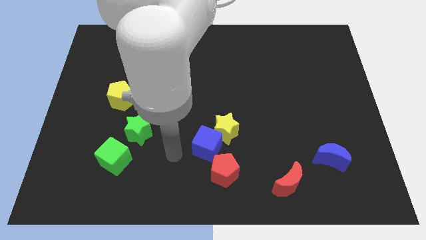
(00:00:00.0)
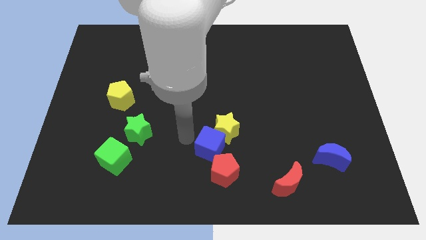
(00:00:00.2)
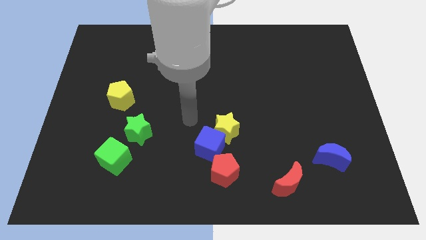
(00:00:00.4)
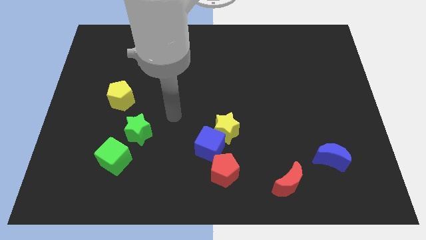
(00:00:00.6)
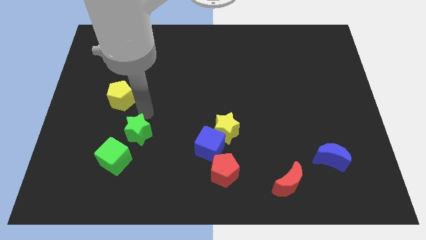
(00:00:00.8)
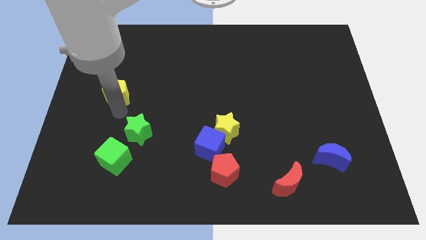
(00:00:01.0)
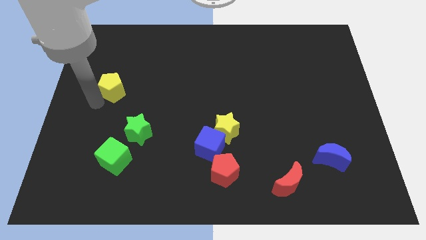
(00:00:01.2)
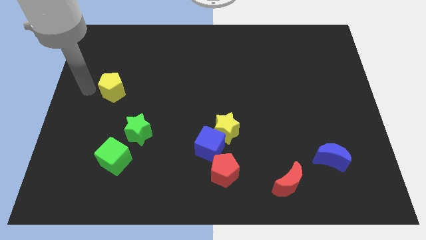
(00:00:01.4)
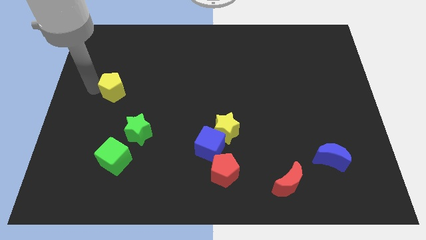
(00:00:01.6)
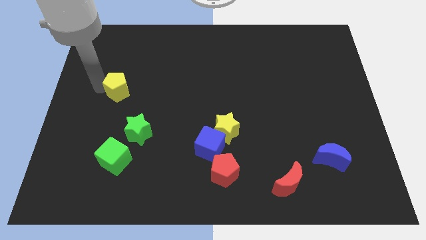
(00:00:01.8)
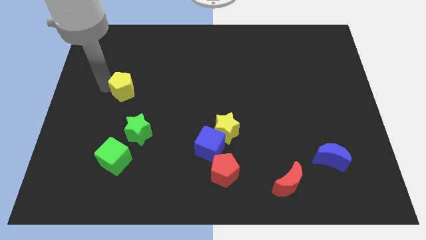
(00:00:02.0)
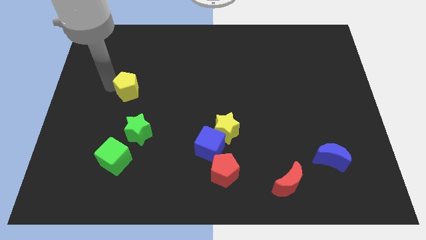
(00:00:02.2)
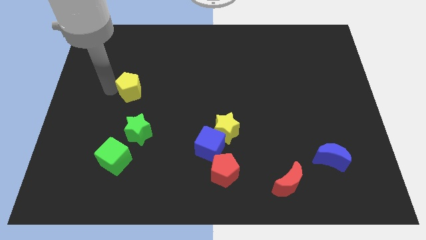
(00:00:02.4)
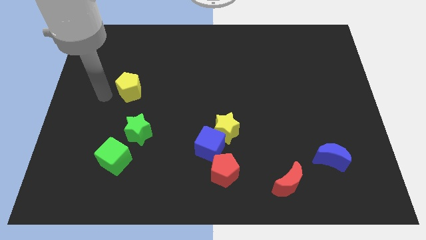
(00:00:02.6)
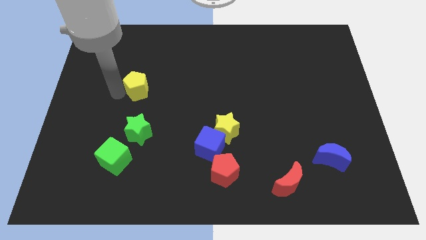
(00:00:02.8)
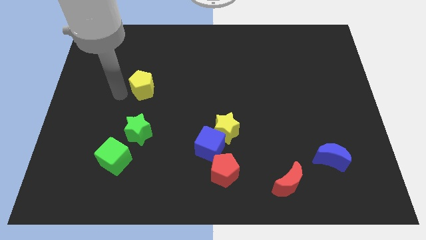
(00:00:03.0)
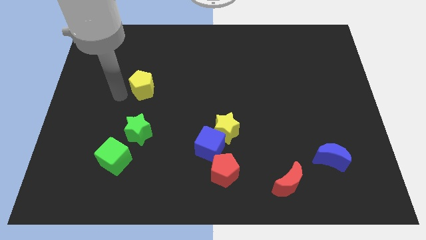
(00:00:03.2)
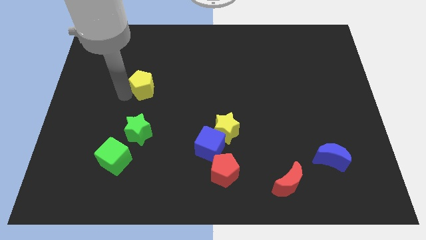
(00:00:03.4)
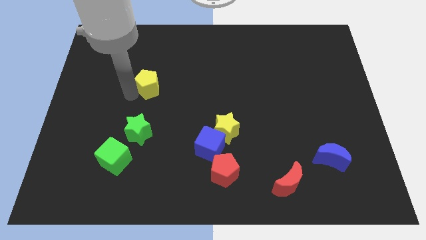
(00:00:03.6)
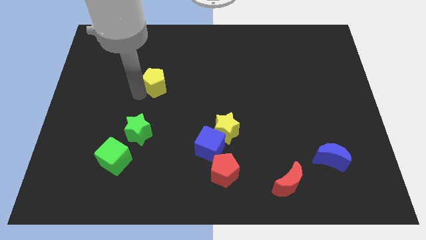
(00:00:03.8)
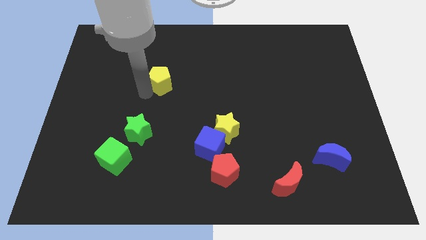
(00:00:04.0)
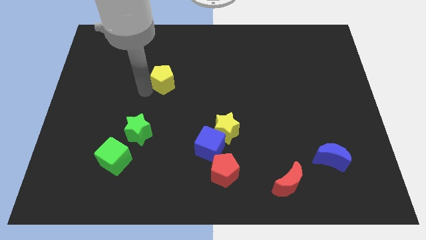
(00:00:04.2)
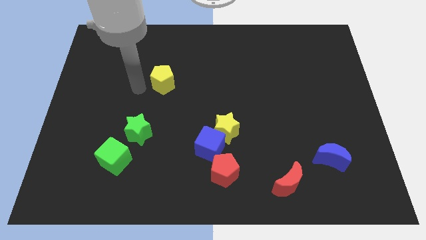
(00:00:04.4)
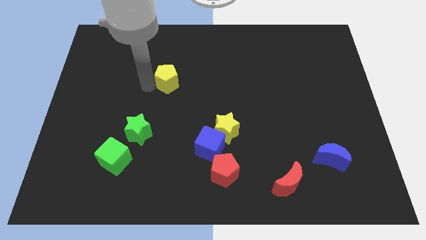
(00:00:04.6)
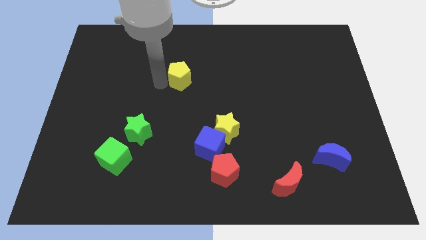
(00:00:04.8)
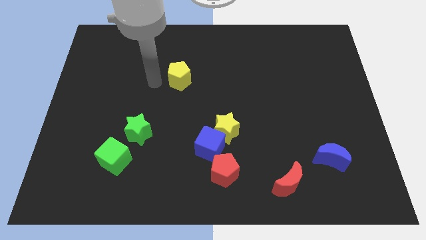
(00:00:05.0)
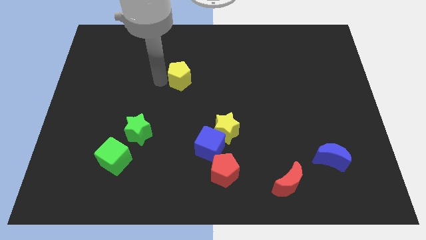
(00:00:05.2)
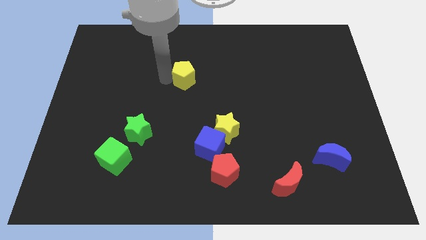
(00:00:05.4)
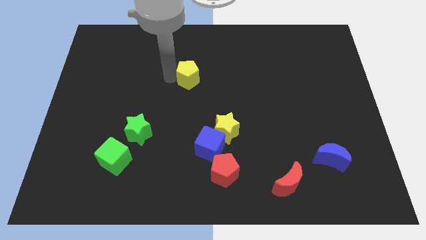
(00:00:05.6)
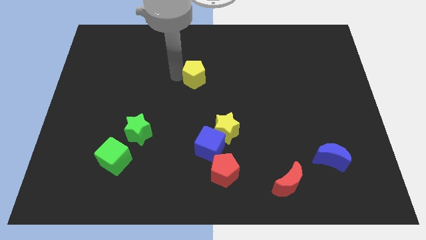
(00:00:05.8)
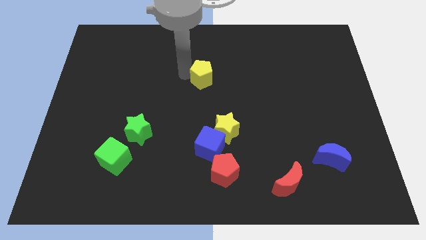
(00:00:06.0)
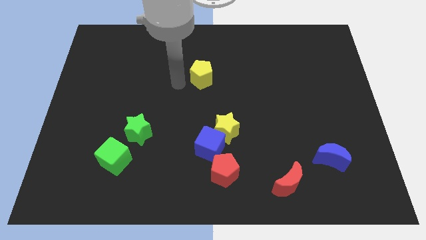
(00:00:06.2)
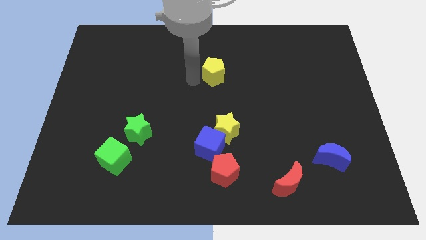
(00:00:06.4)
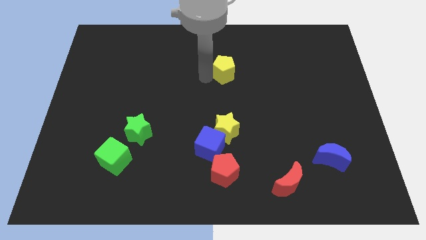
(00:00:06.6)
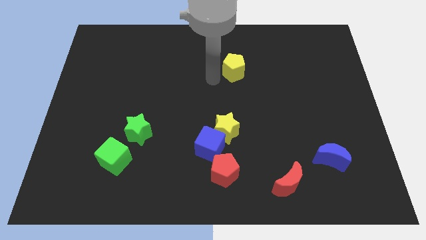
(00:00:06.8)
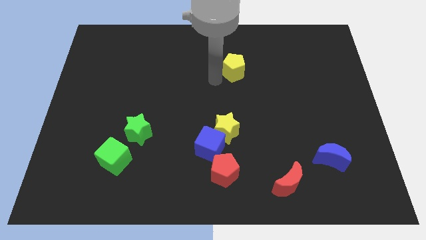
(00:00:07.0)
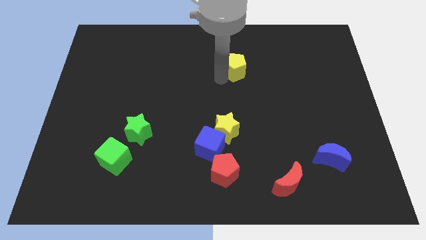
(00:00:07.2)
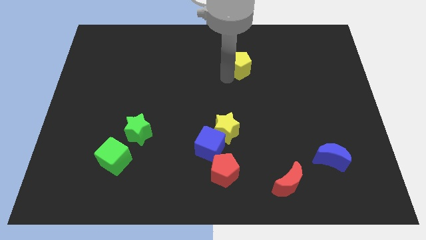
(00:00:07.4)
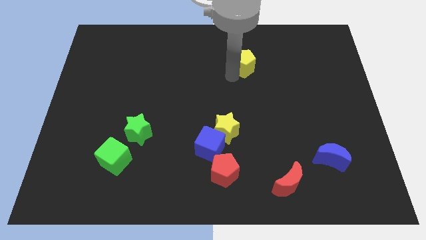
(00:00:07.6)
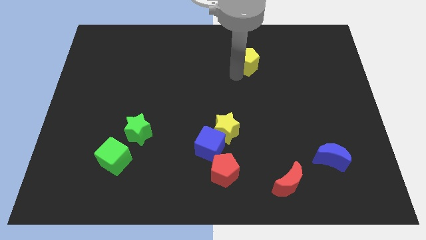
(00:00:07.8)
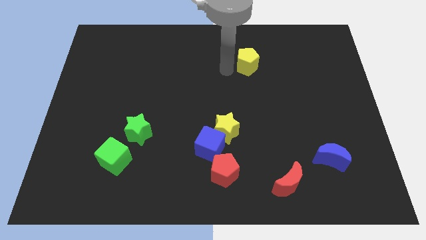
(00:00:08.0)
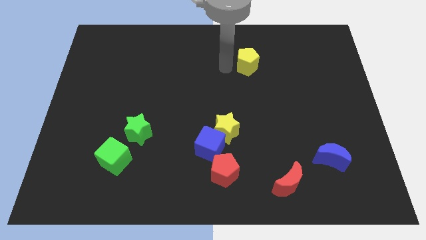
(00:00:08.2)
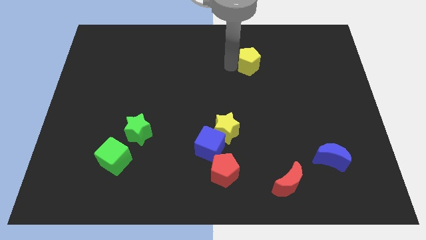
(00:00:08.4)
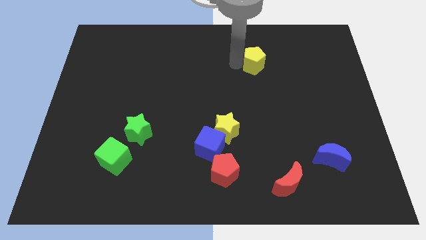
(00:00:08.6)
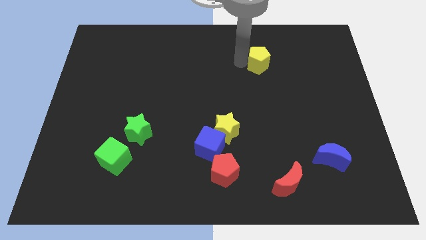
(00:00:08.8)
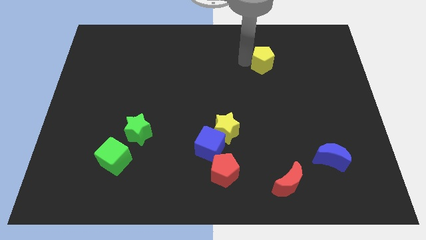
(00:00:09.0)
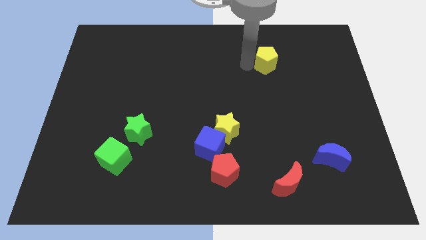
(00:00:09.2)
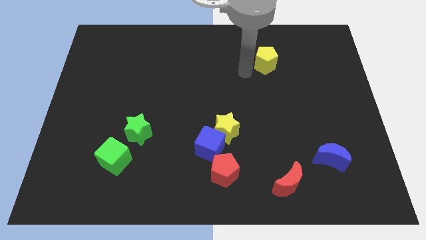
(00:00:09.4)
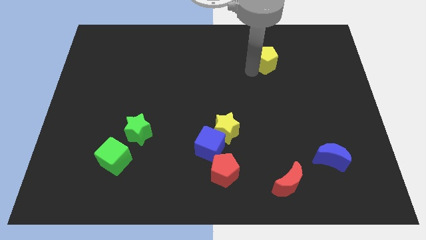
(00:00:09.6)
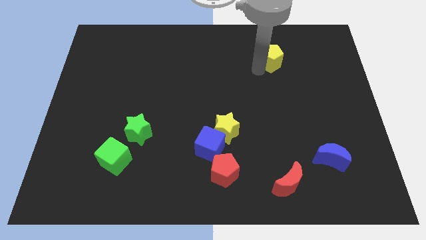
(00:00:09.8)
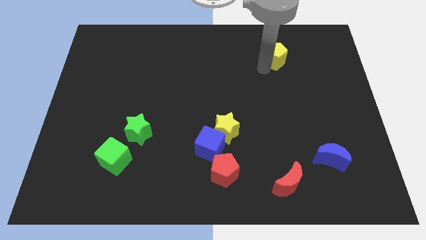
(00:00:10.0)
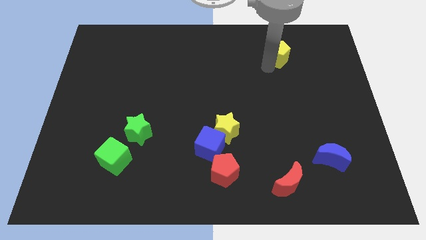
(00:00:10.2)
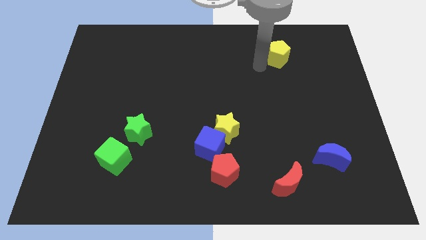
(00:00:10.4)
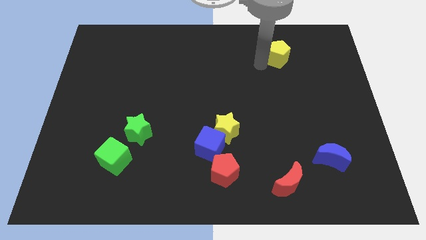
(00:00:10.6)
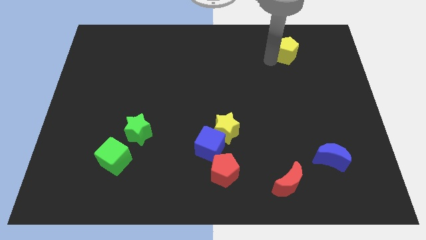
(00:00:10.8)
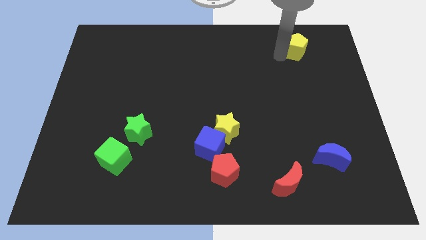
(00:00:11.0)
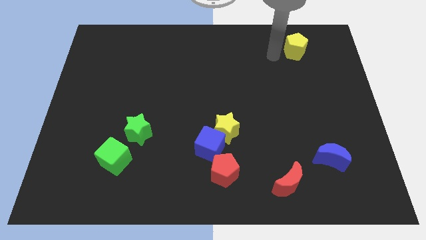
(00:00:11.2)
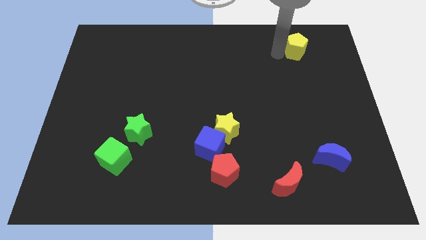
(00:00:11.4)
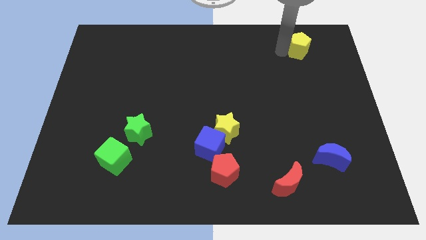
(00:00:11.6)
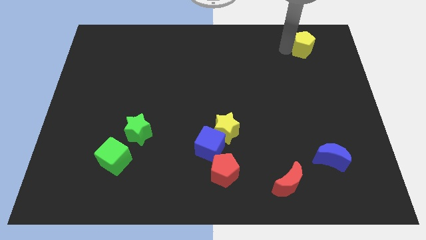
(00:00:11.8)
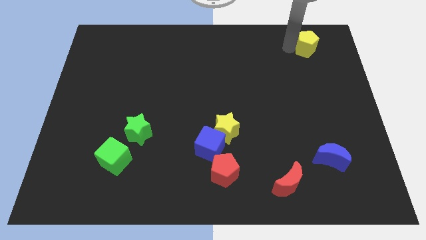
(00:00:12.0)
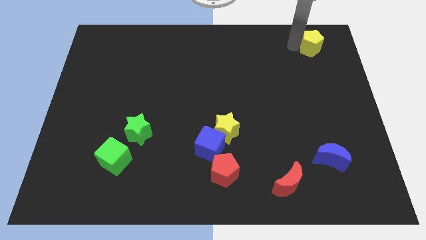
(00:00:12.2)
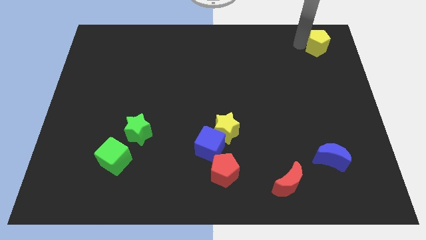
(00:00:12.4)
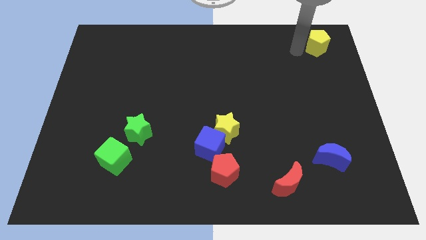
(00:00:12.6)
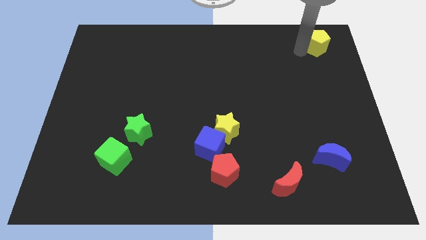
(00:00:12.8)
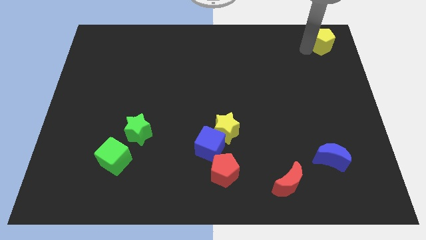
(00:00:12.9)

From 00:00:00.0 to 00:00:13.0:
put the yellow pentagon to the upper right corner
